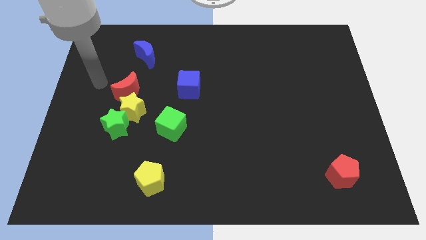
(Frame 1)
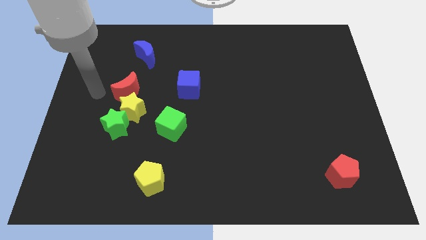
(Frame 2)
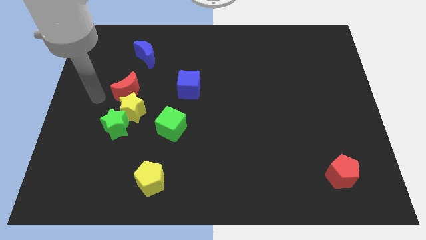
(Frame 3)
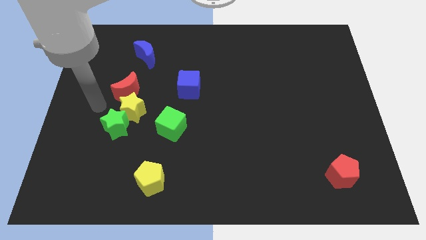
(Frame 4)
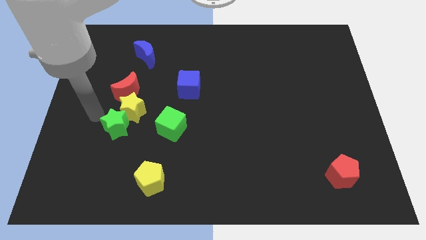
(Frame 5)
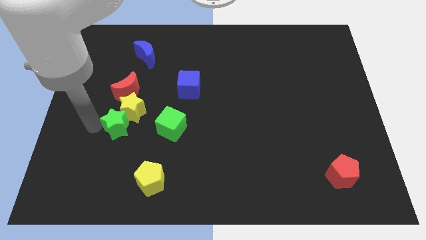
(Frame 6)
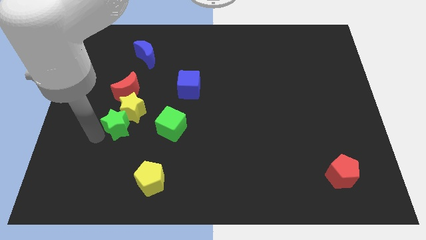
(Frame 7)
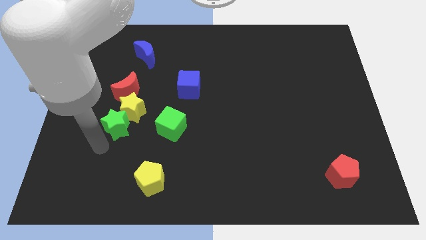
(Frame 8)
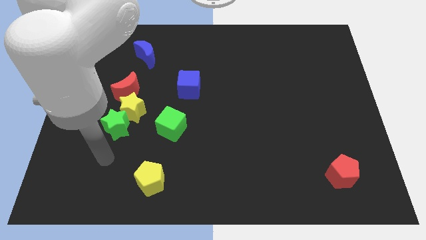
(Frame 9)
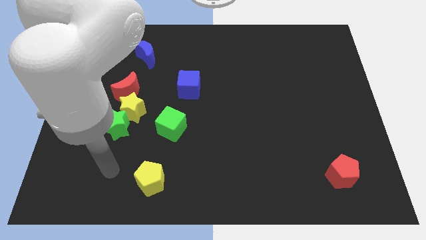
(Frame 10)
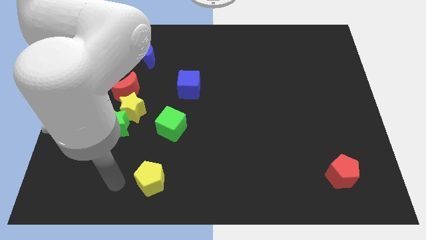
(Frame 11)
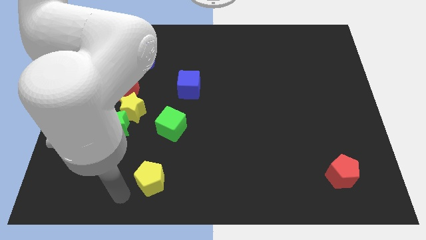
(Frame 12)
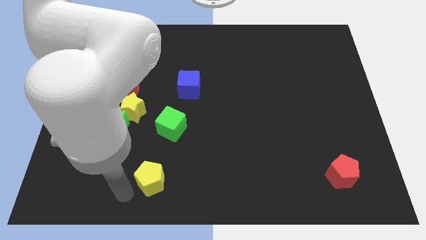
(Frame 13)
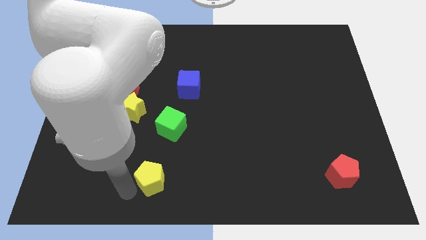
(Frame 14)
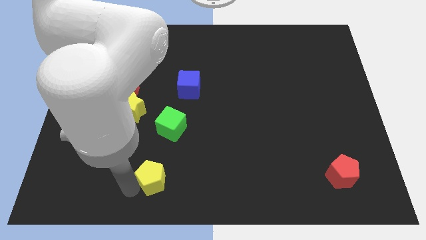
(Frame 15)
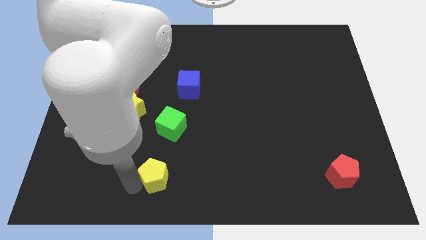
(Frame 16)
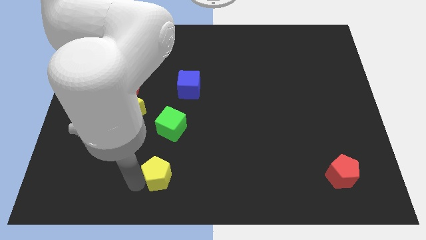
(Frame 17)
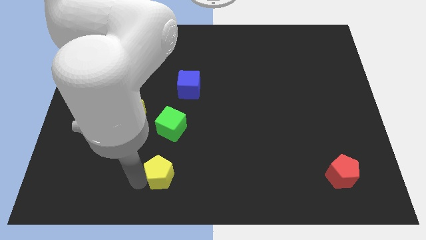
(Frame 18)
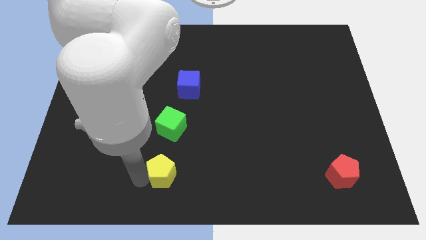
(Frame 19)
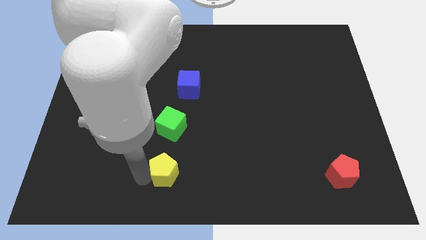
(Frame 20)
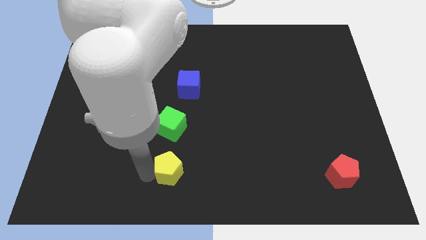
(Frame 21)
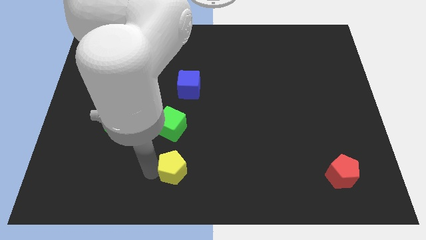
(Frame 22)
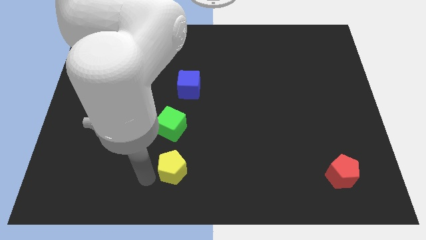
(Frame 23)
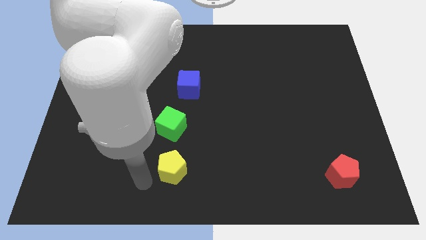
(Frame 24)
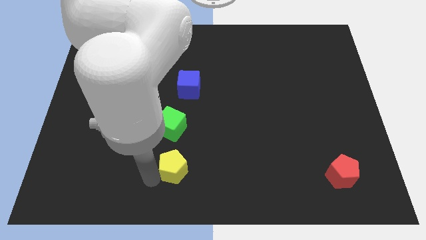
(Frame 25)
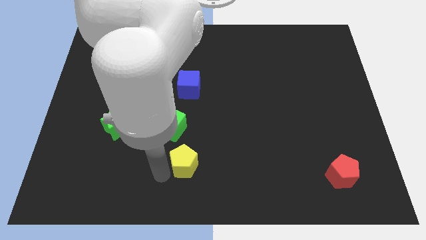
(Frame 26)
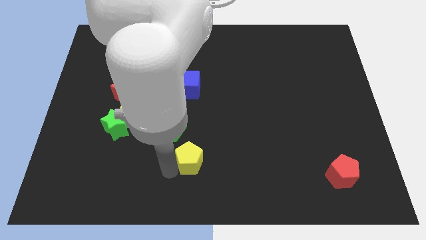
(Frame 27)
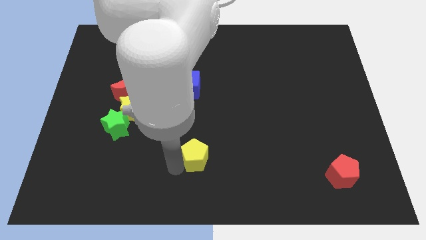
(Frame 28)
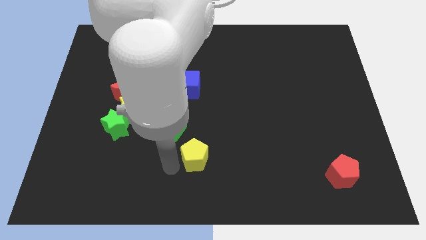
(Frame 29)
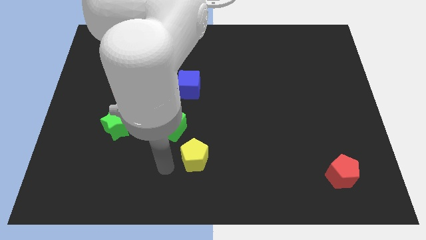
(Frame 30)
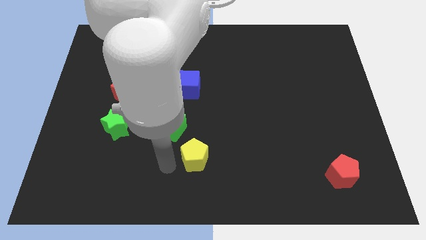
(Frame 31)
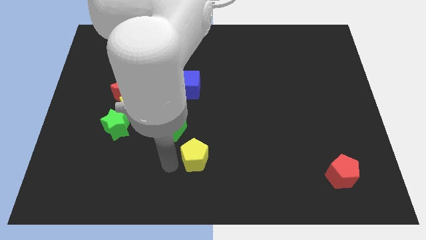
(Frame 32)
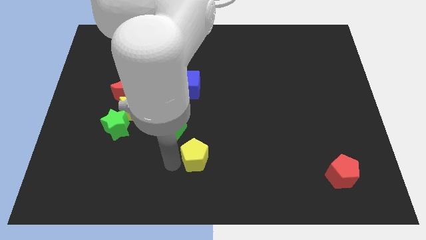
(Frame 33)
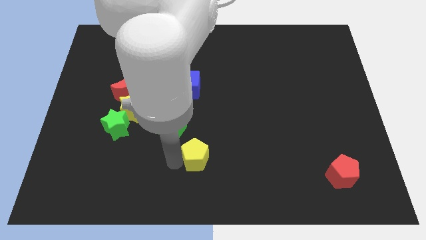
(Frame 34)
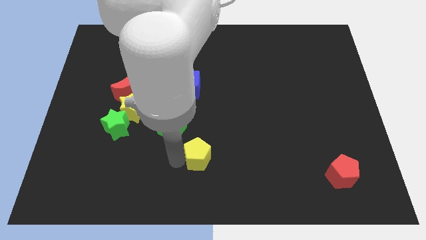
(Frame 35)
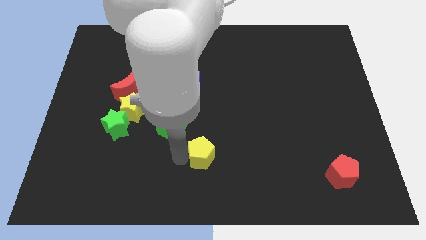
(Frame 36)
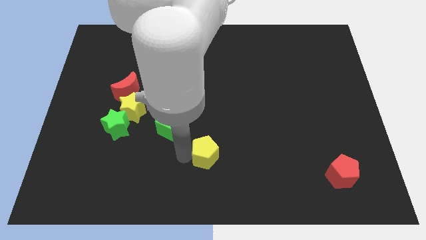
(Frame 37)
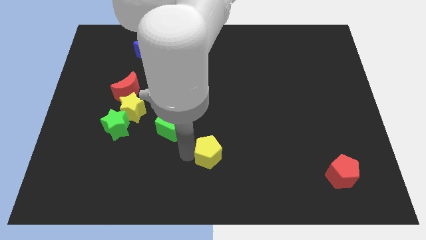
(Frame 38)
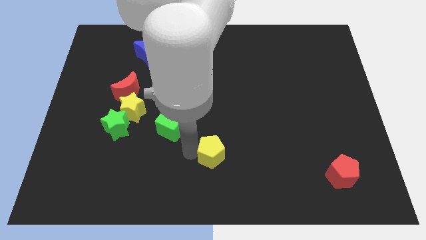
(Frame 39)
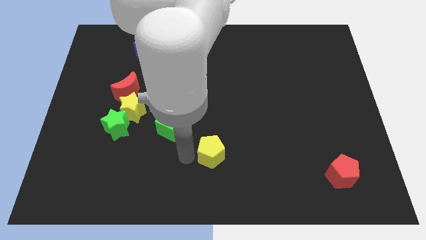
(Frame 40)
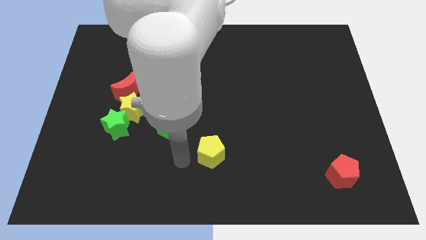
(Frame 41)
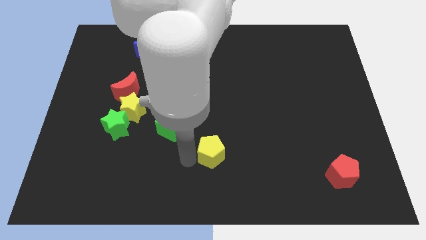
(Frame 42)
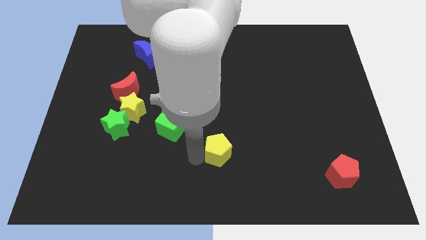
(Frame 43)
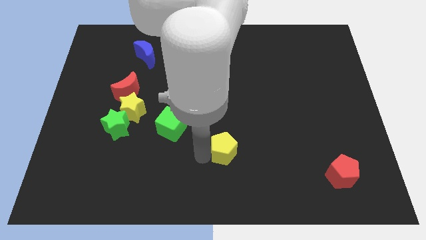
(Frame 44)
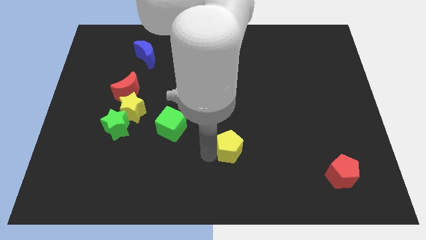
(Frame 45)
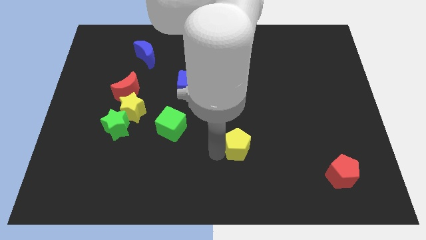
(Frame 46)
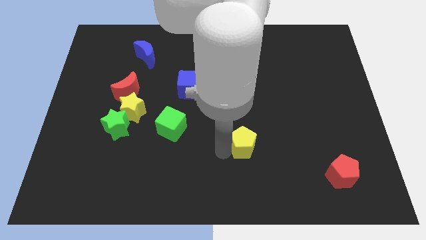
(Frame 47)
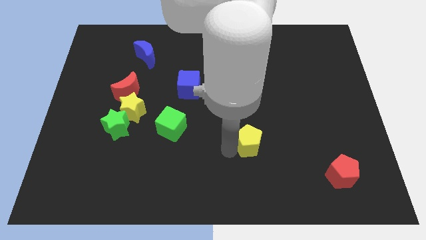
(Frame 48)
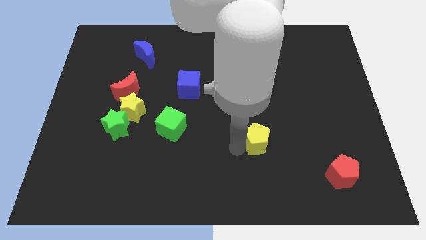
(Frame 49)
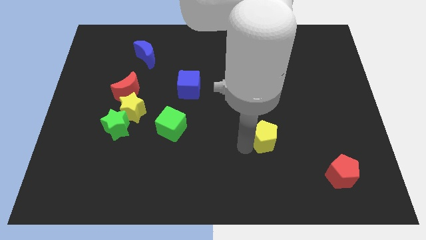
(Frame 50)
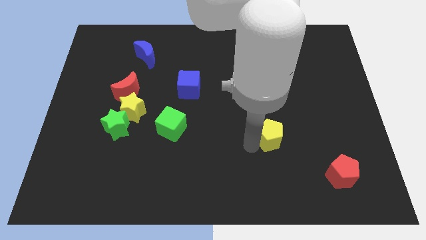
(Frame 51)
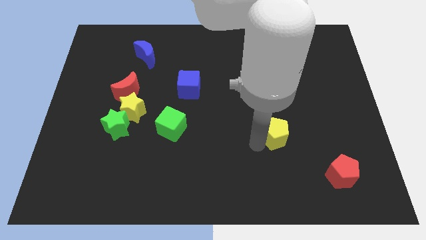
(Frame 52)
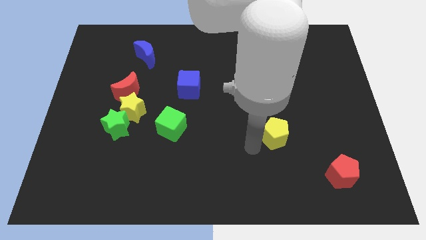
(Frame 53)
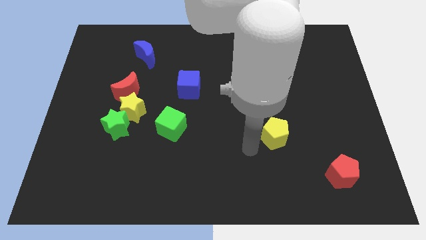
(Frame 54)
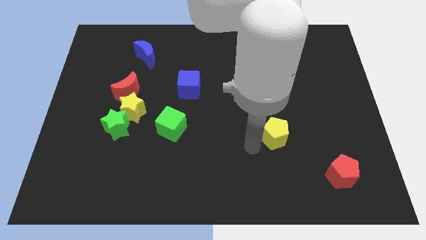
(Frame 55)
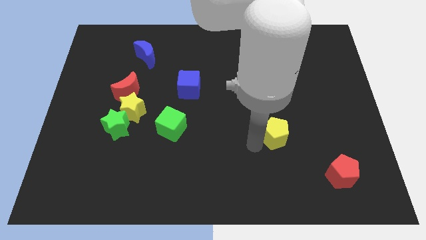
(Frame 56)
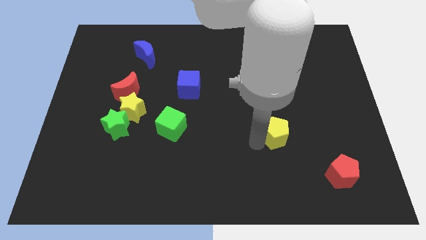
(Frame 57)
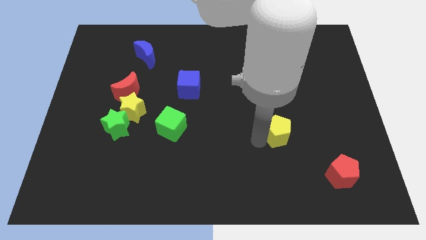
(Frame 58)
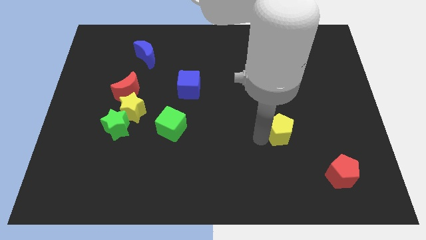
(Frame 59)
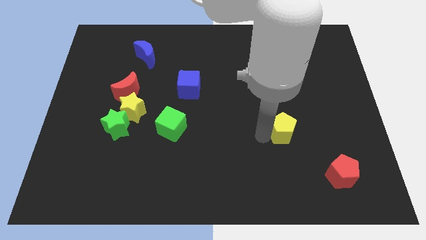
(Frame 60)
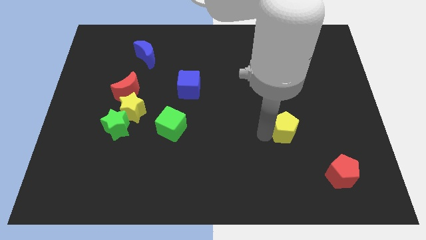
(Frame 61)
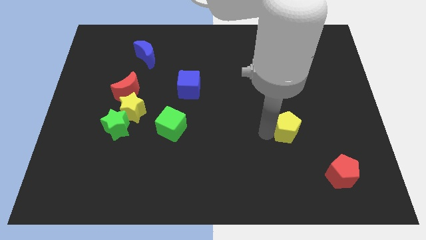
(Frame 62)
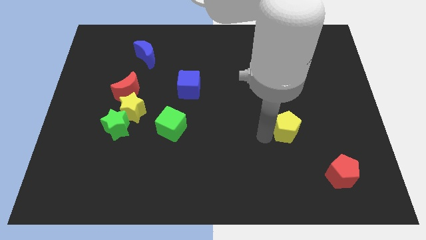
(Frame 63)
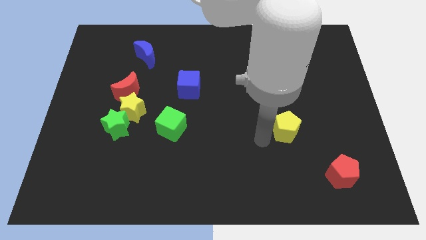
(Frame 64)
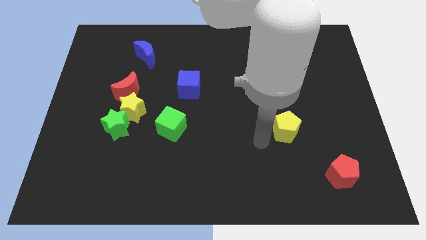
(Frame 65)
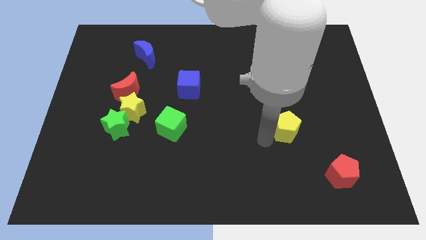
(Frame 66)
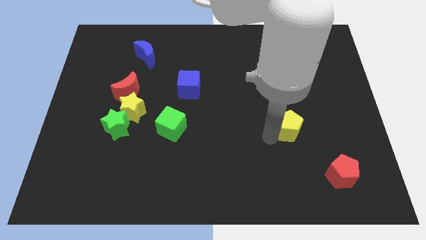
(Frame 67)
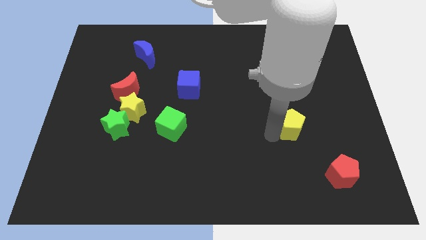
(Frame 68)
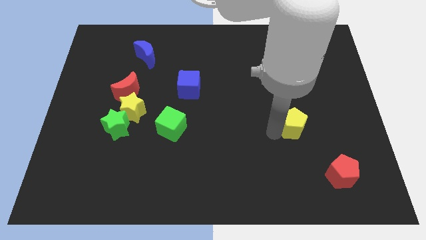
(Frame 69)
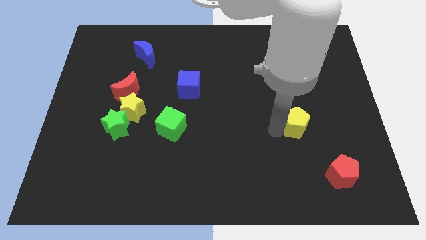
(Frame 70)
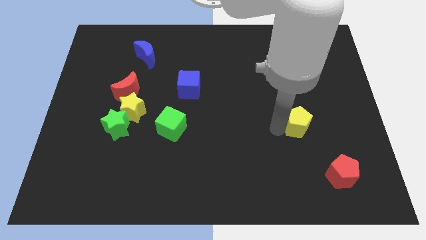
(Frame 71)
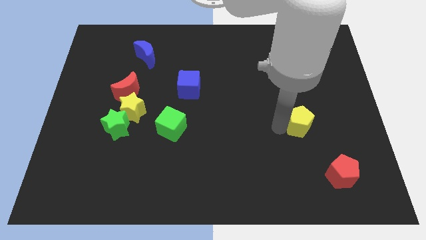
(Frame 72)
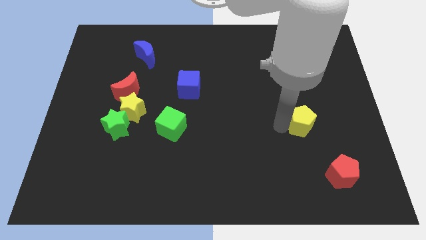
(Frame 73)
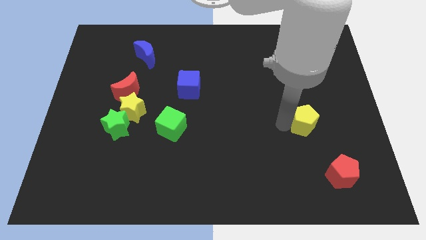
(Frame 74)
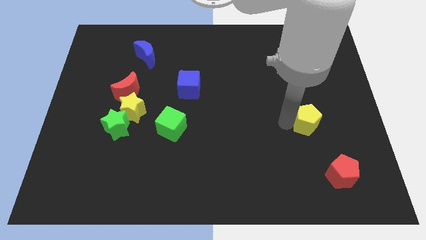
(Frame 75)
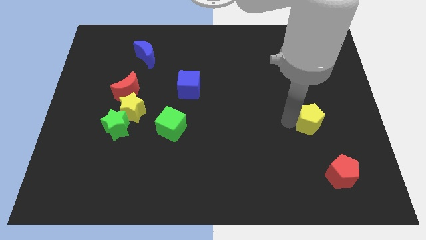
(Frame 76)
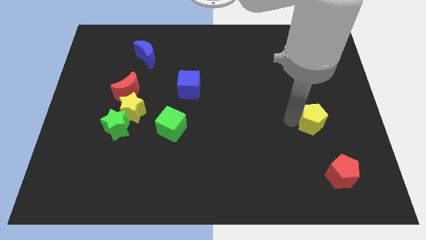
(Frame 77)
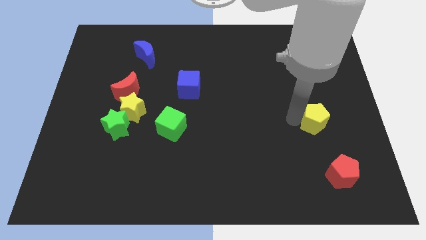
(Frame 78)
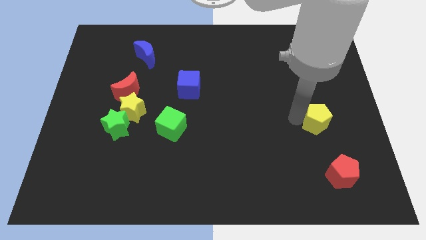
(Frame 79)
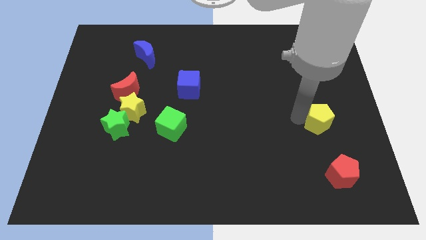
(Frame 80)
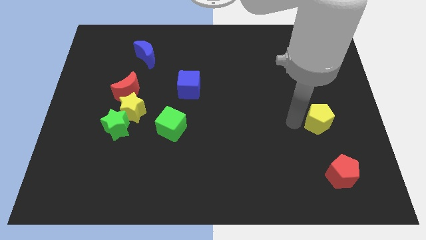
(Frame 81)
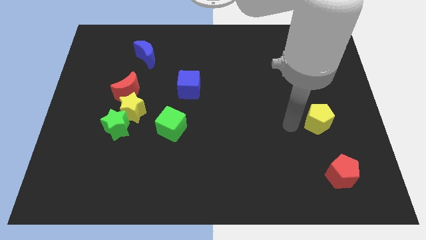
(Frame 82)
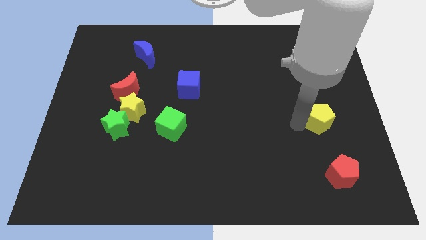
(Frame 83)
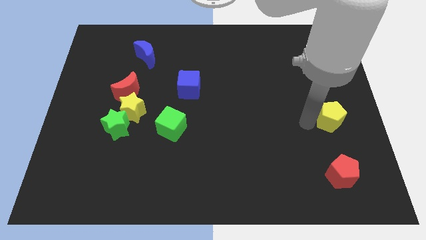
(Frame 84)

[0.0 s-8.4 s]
push the yellow pentagon to the right side of the board
